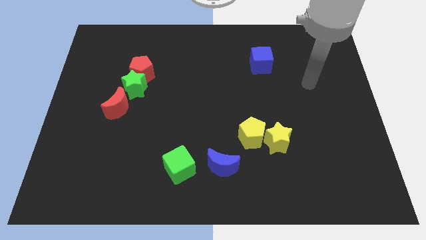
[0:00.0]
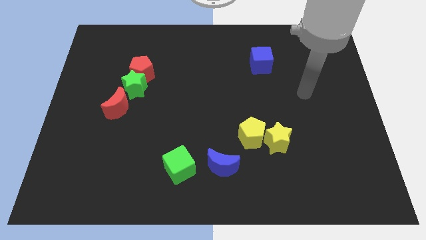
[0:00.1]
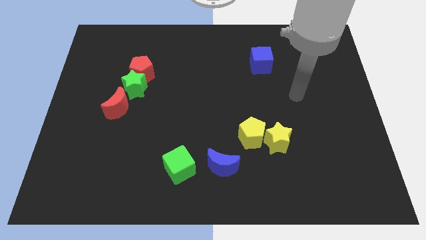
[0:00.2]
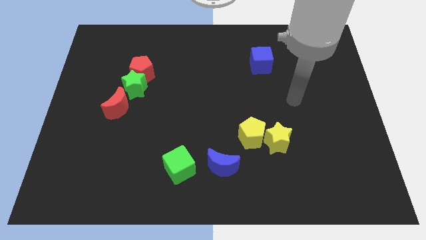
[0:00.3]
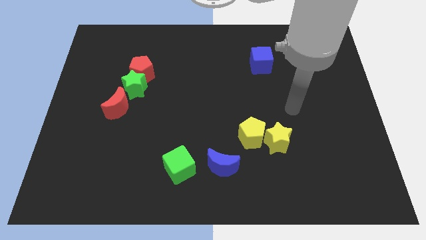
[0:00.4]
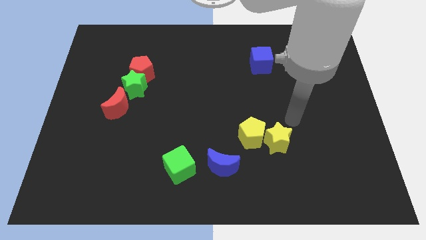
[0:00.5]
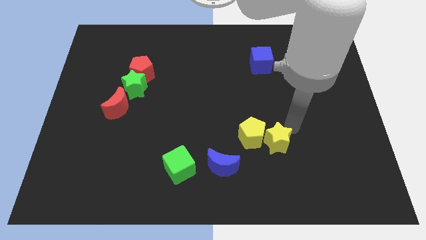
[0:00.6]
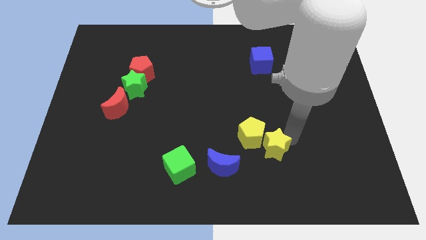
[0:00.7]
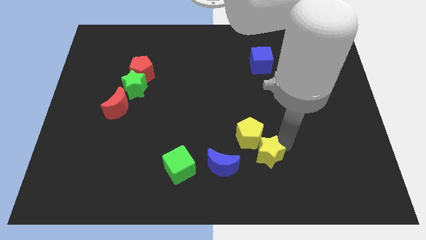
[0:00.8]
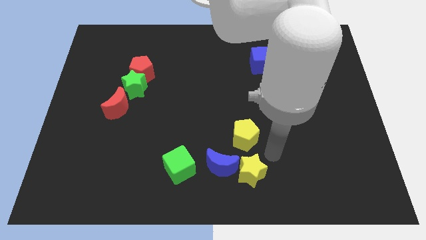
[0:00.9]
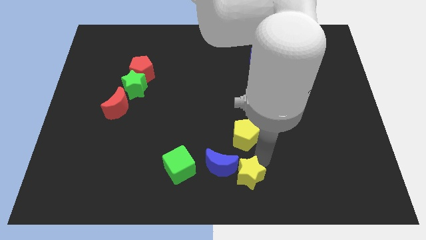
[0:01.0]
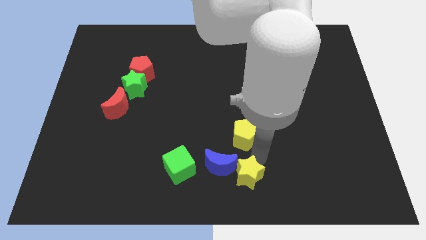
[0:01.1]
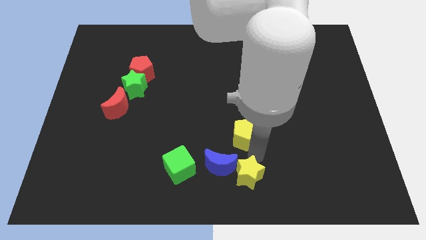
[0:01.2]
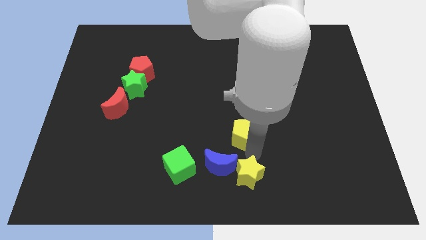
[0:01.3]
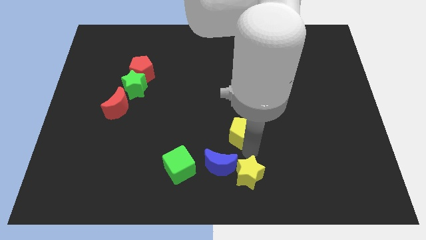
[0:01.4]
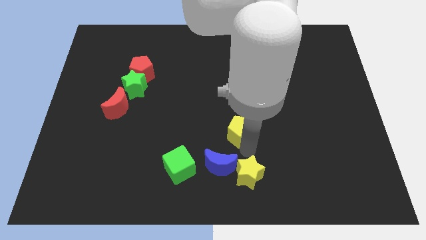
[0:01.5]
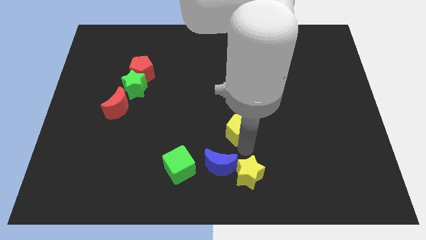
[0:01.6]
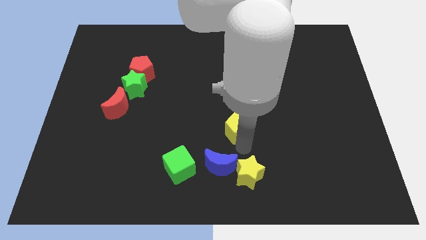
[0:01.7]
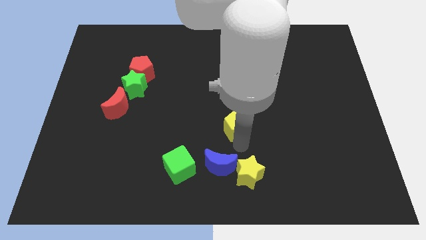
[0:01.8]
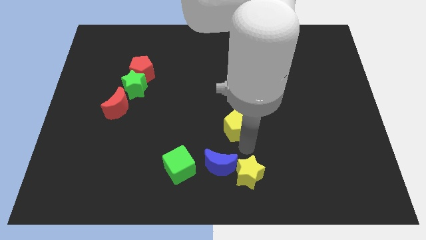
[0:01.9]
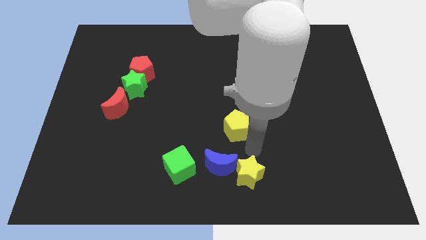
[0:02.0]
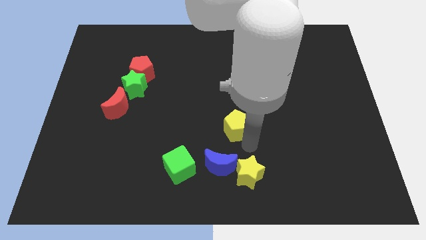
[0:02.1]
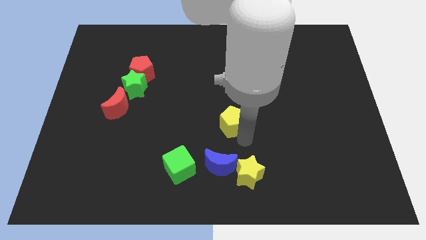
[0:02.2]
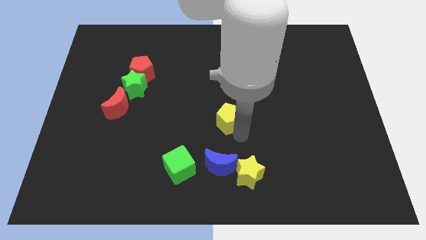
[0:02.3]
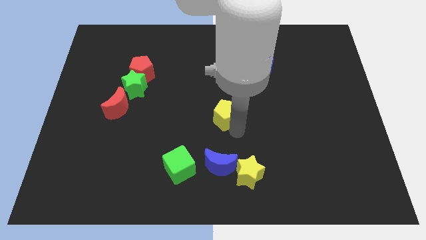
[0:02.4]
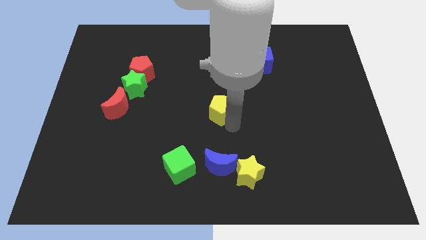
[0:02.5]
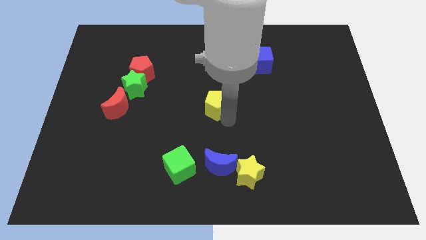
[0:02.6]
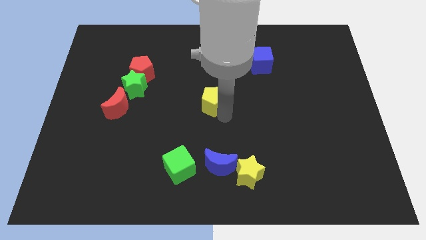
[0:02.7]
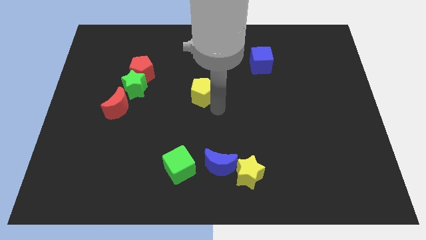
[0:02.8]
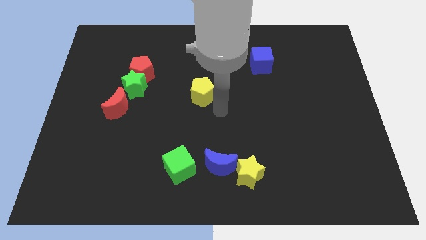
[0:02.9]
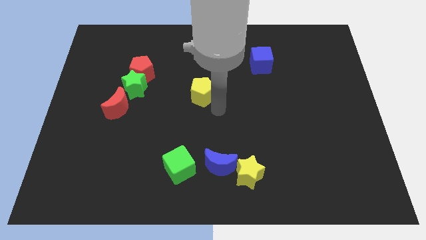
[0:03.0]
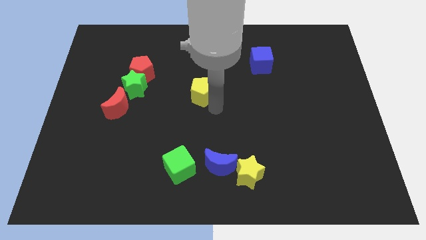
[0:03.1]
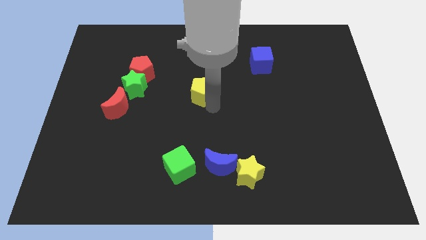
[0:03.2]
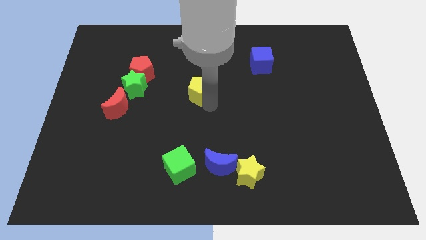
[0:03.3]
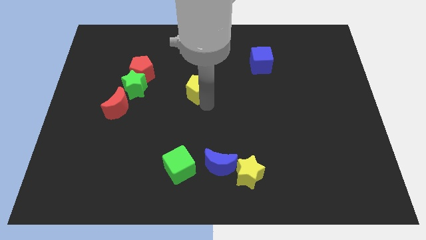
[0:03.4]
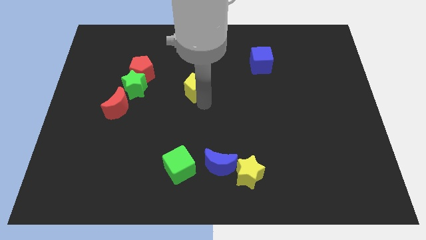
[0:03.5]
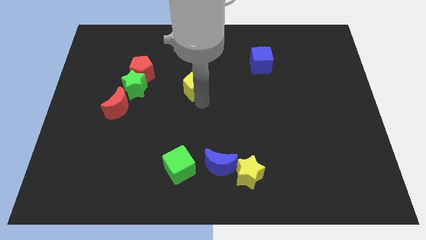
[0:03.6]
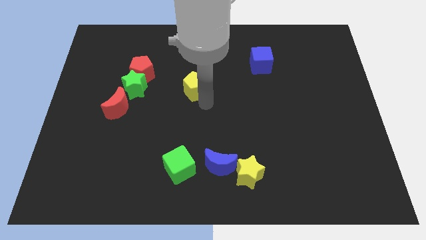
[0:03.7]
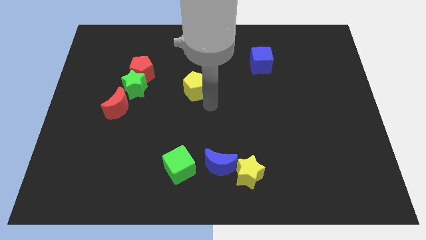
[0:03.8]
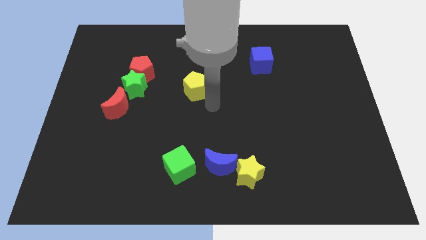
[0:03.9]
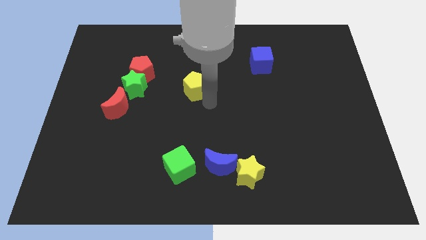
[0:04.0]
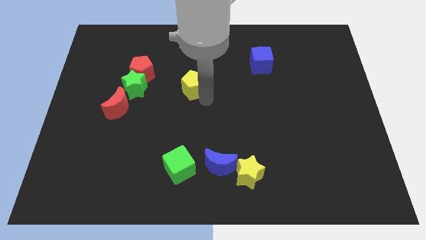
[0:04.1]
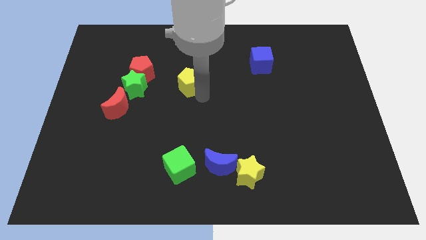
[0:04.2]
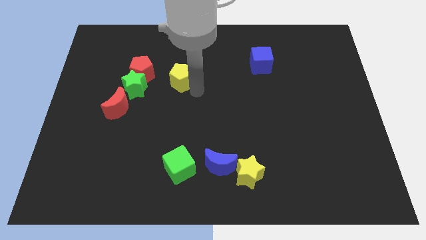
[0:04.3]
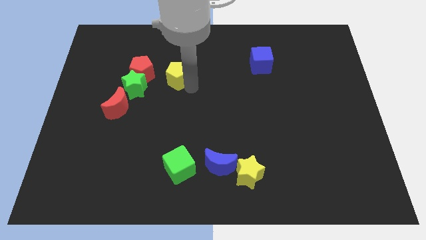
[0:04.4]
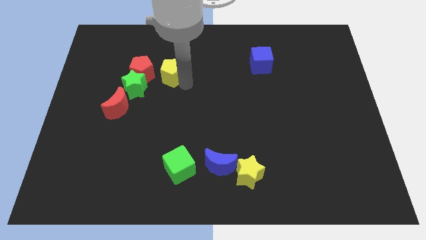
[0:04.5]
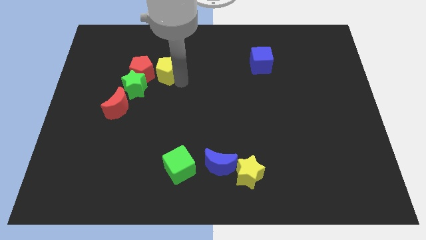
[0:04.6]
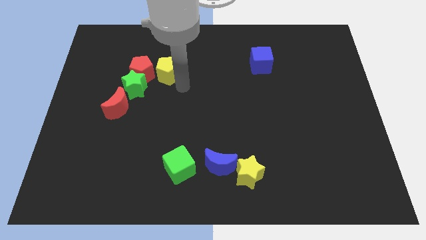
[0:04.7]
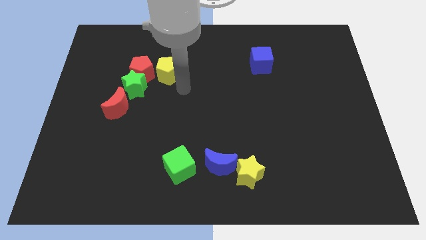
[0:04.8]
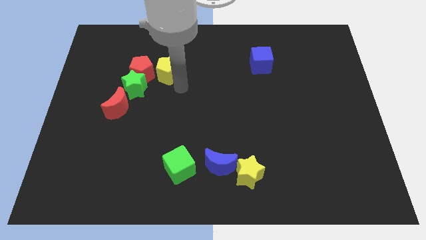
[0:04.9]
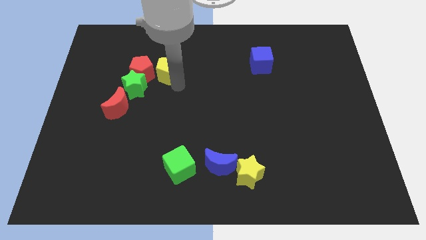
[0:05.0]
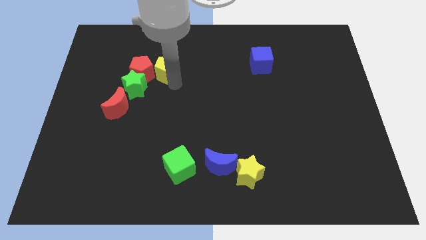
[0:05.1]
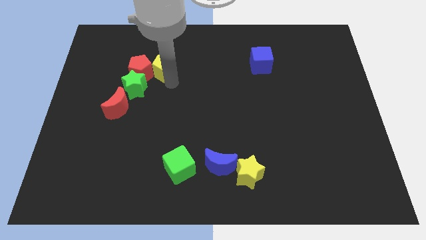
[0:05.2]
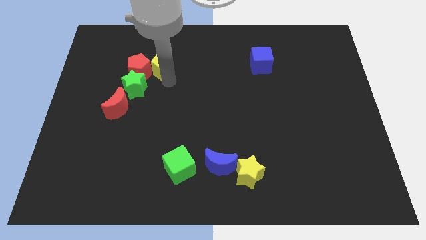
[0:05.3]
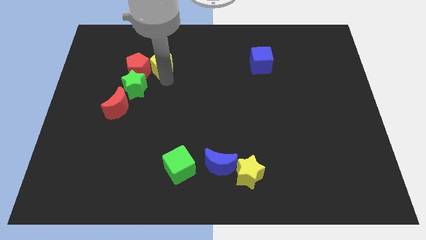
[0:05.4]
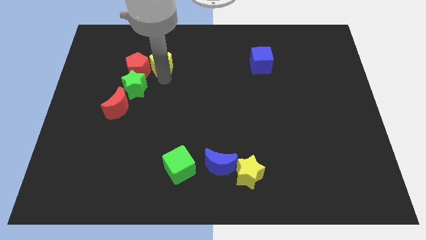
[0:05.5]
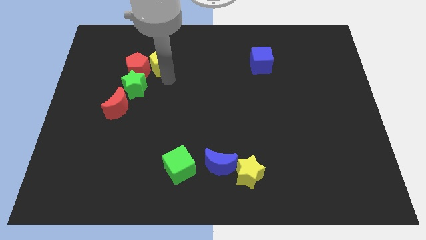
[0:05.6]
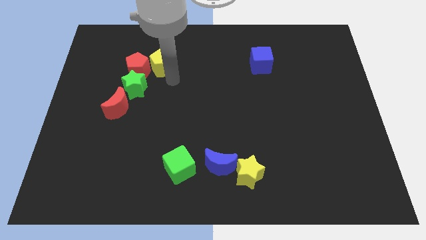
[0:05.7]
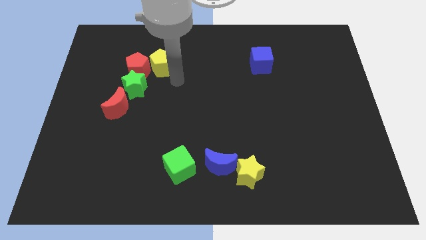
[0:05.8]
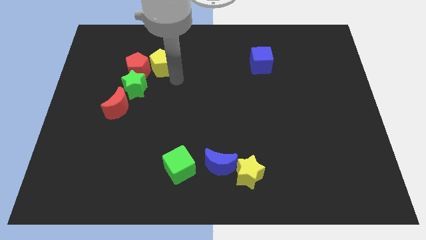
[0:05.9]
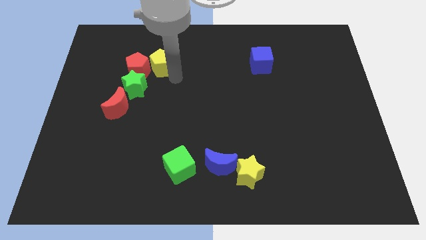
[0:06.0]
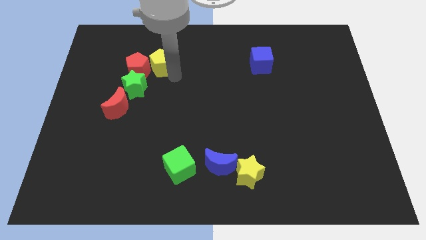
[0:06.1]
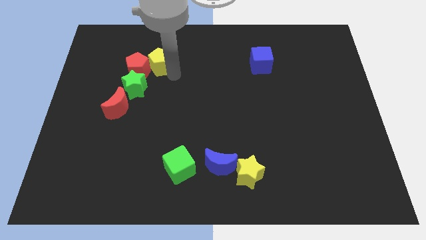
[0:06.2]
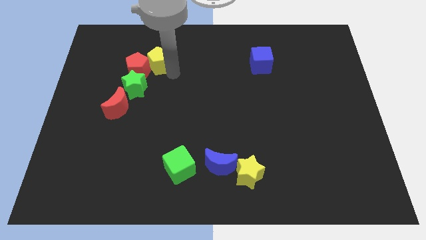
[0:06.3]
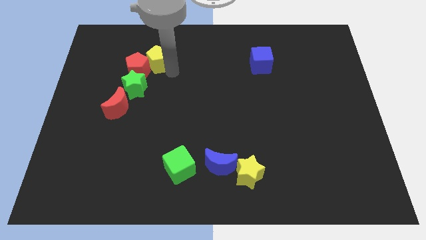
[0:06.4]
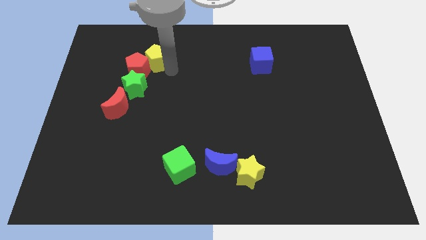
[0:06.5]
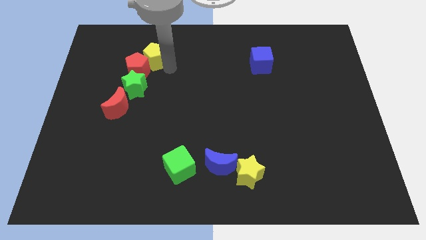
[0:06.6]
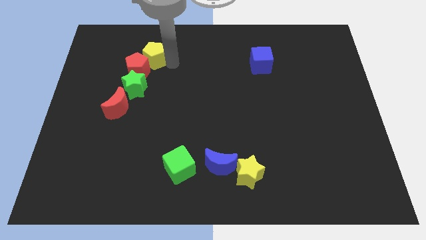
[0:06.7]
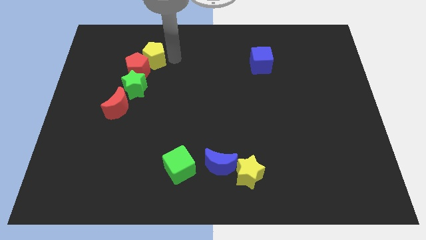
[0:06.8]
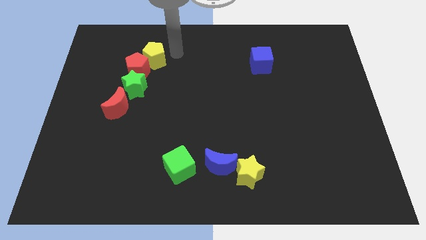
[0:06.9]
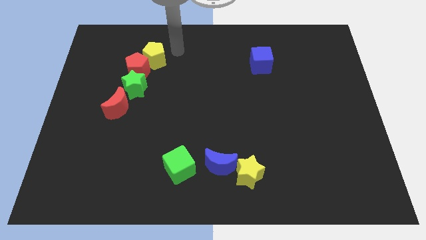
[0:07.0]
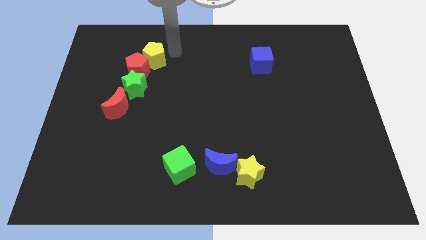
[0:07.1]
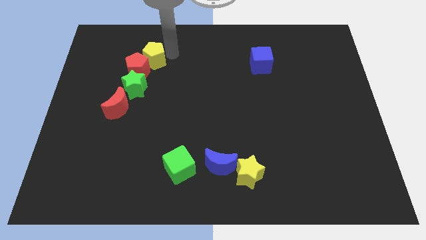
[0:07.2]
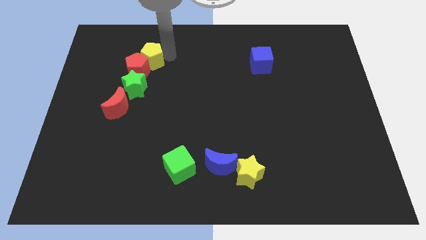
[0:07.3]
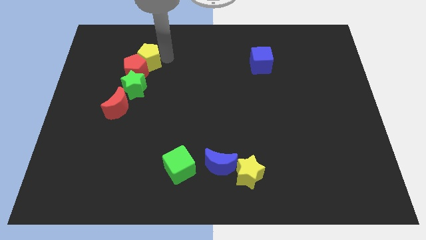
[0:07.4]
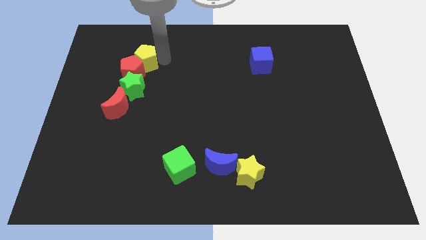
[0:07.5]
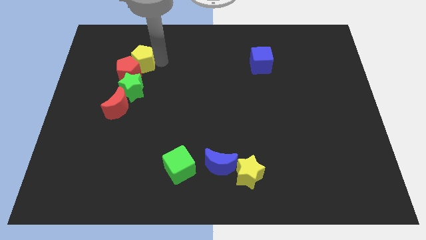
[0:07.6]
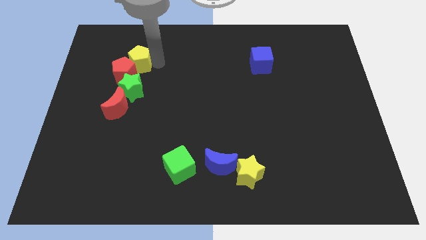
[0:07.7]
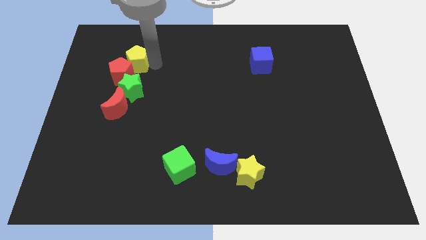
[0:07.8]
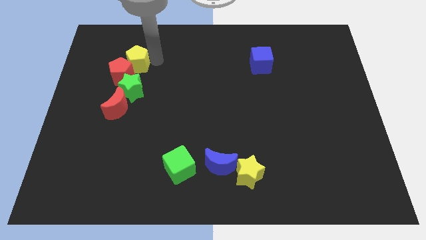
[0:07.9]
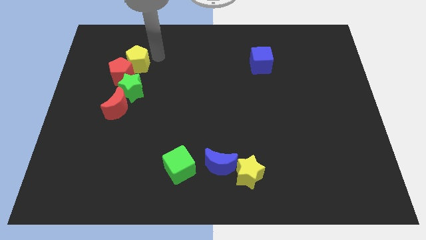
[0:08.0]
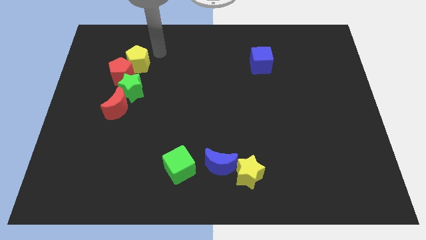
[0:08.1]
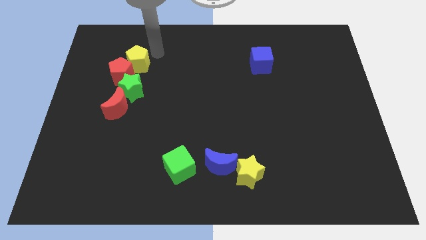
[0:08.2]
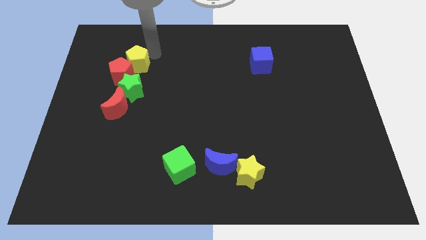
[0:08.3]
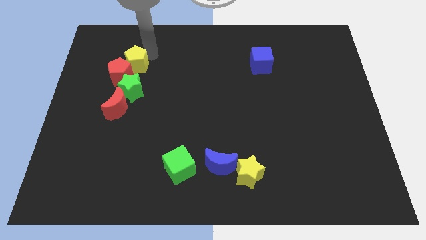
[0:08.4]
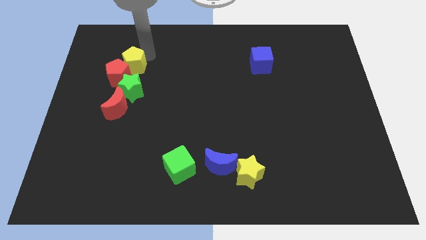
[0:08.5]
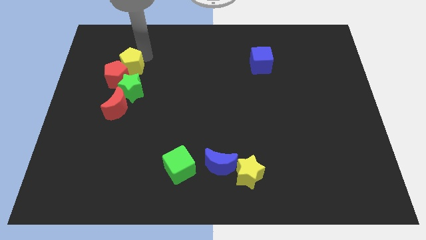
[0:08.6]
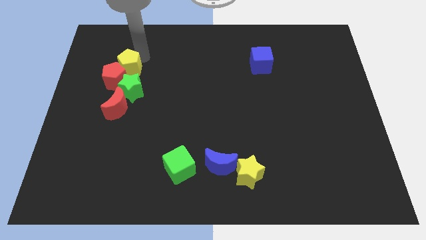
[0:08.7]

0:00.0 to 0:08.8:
move the yellow pentagon diagonally up and to the left of the green star
